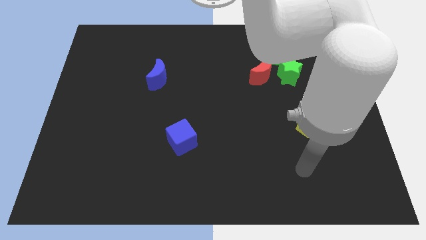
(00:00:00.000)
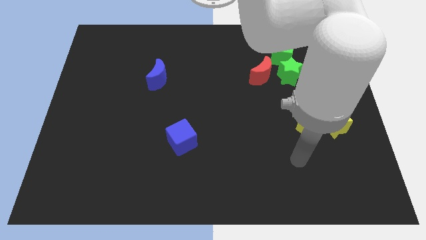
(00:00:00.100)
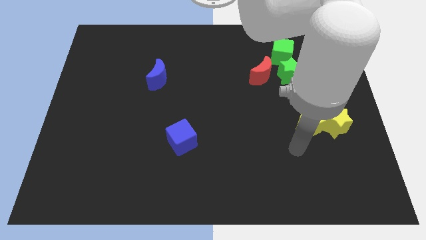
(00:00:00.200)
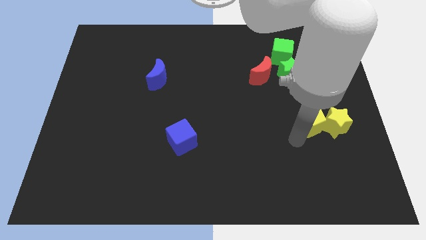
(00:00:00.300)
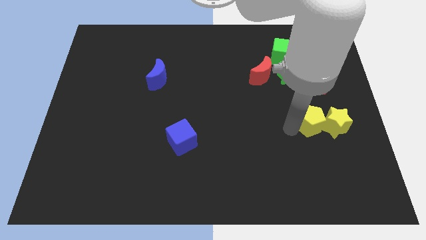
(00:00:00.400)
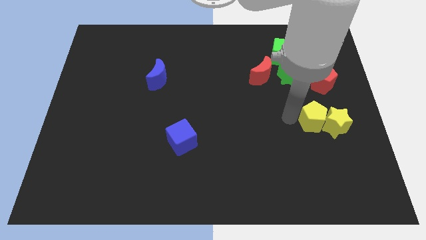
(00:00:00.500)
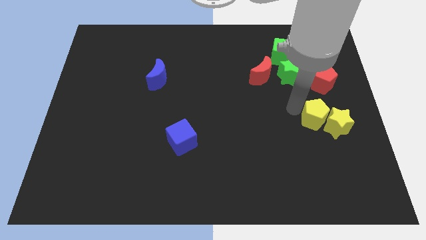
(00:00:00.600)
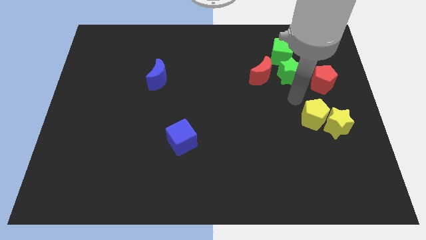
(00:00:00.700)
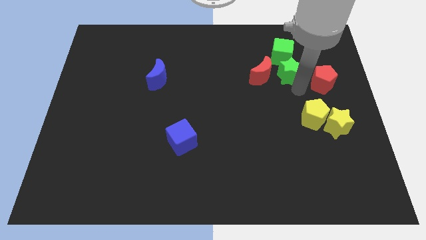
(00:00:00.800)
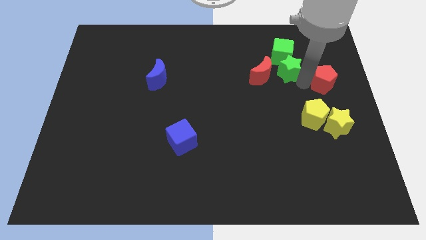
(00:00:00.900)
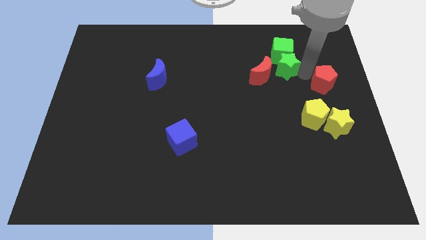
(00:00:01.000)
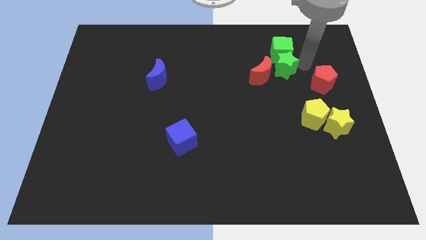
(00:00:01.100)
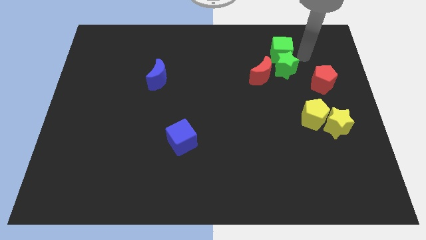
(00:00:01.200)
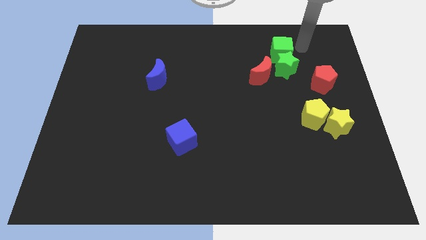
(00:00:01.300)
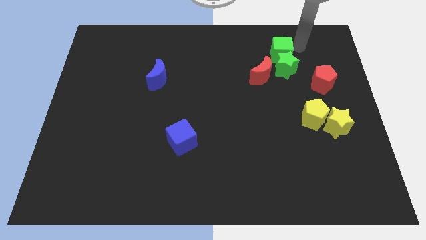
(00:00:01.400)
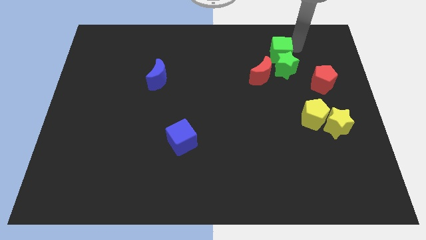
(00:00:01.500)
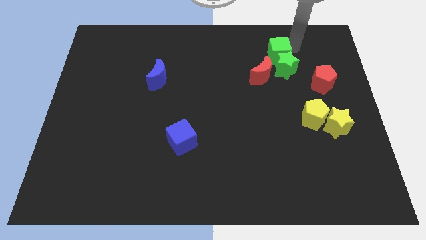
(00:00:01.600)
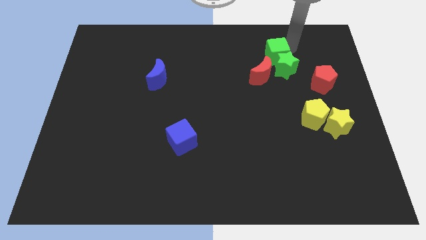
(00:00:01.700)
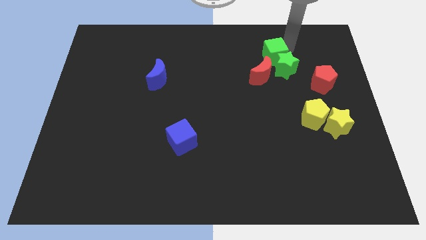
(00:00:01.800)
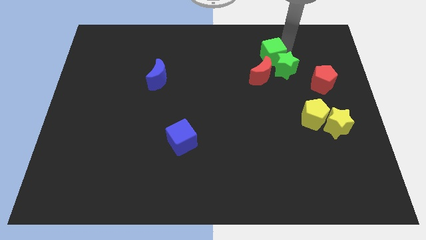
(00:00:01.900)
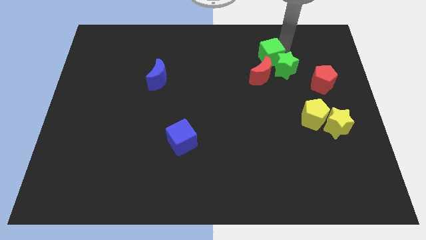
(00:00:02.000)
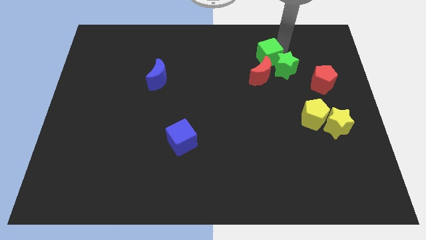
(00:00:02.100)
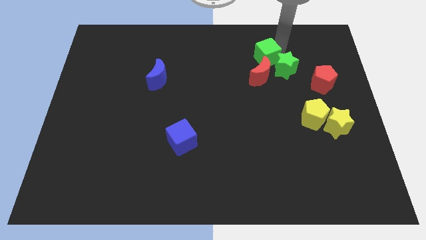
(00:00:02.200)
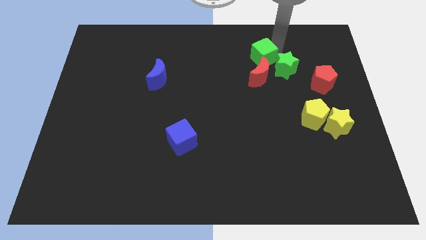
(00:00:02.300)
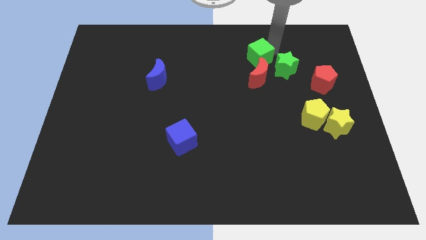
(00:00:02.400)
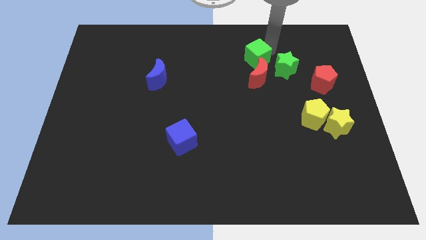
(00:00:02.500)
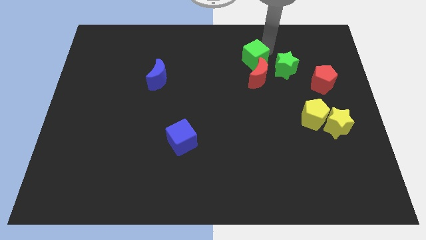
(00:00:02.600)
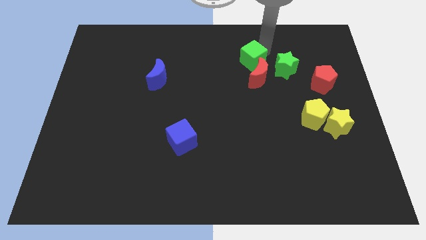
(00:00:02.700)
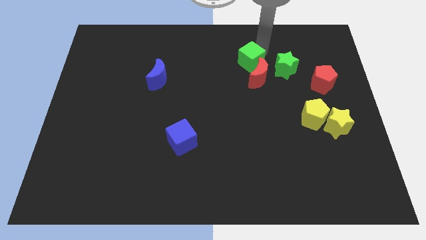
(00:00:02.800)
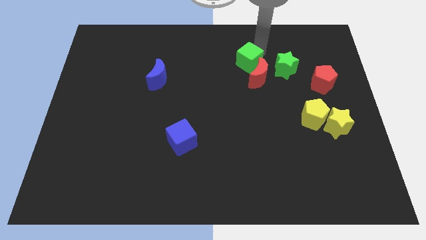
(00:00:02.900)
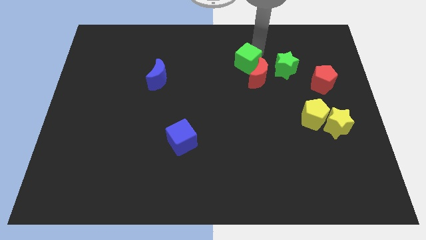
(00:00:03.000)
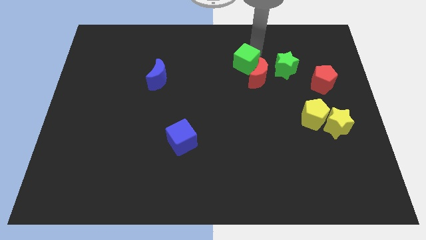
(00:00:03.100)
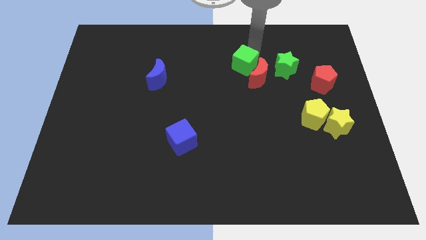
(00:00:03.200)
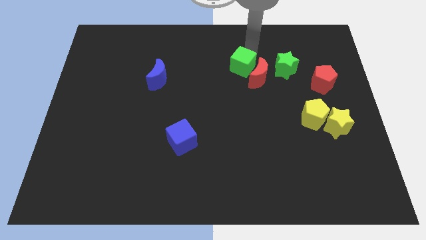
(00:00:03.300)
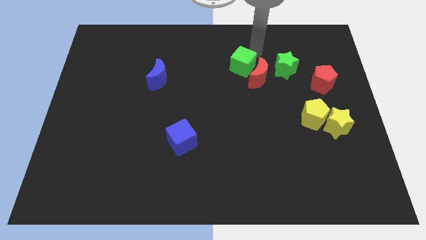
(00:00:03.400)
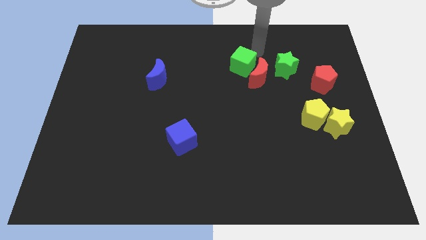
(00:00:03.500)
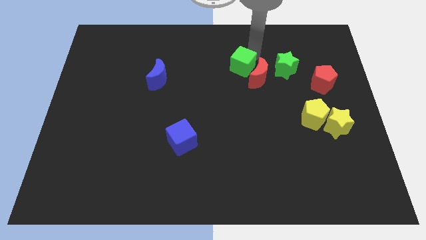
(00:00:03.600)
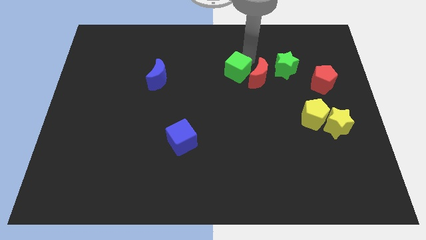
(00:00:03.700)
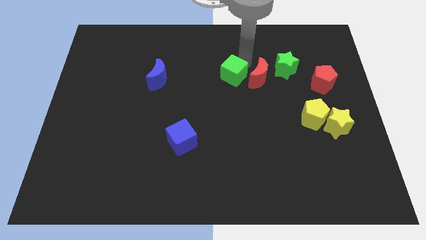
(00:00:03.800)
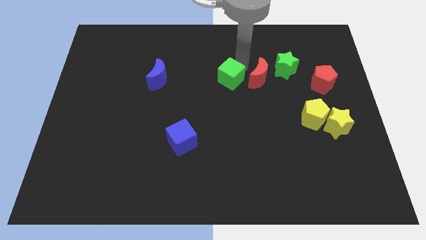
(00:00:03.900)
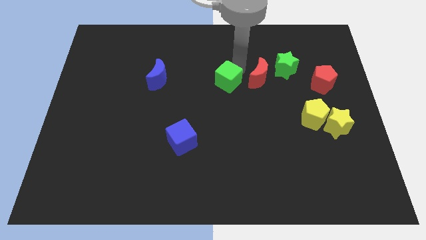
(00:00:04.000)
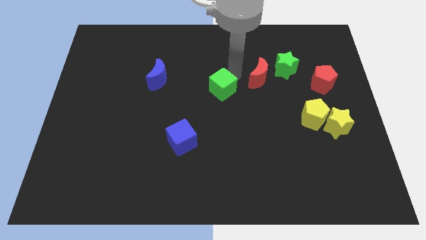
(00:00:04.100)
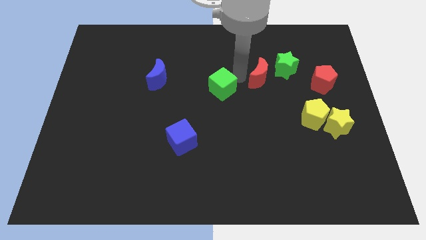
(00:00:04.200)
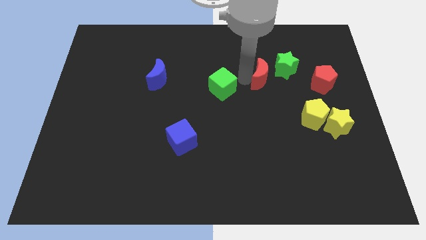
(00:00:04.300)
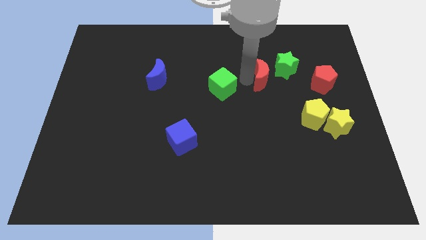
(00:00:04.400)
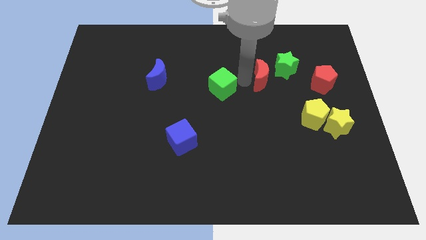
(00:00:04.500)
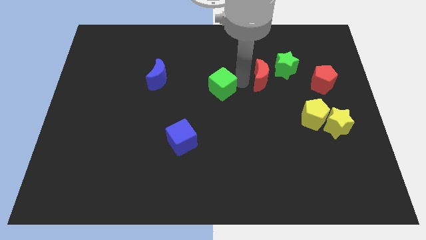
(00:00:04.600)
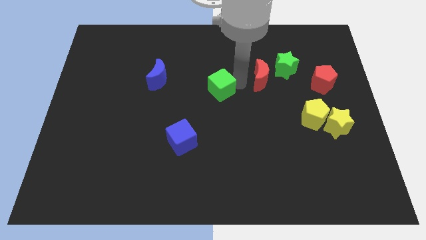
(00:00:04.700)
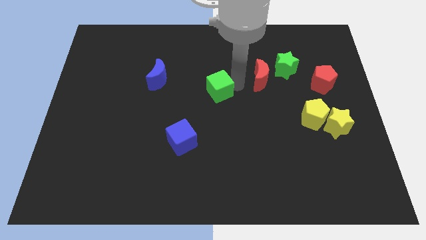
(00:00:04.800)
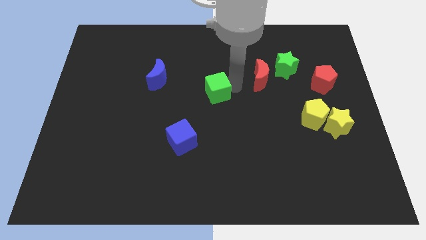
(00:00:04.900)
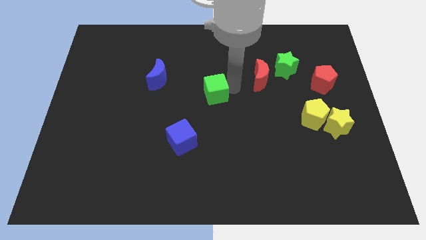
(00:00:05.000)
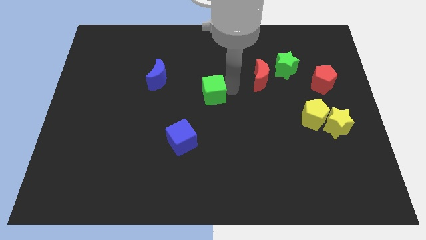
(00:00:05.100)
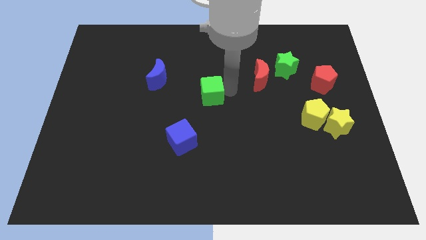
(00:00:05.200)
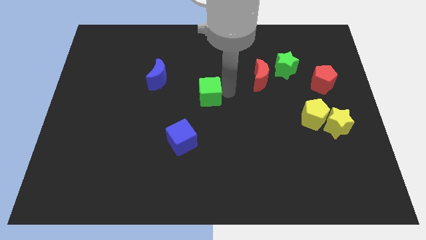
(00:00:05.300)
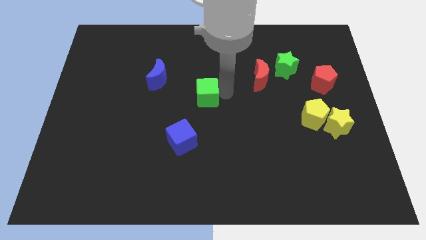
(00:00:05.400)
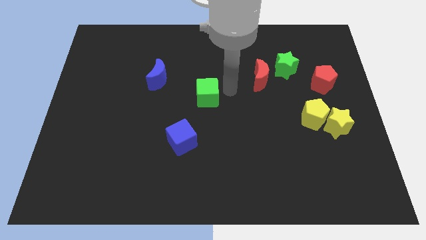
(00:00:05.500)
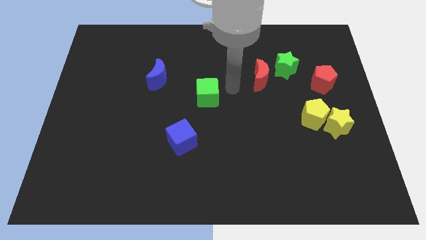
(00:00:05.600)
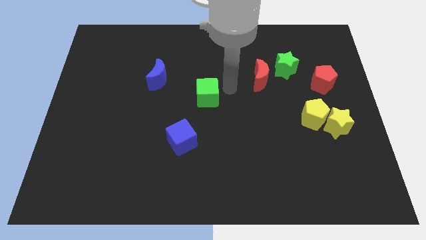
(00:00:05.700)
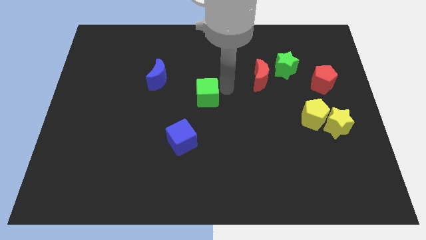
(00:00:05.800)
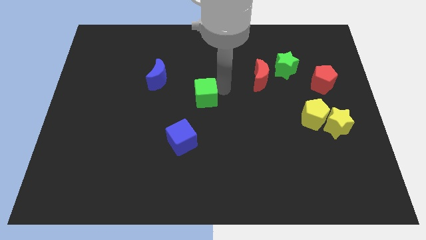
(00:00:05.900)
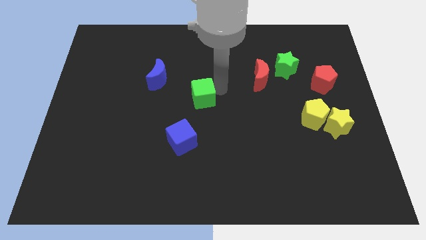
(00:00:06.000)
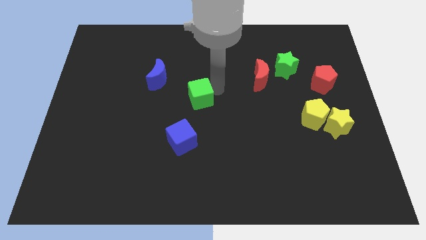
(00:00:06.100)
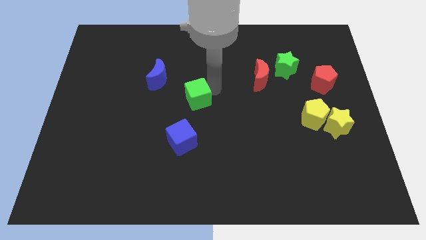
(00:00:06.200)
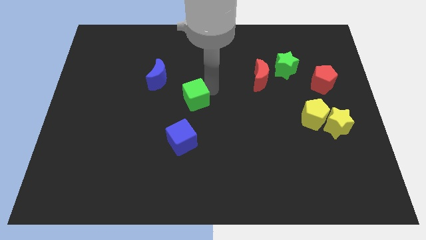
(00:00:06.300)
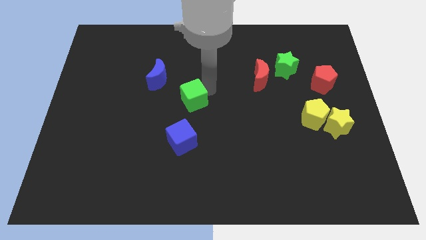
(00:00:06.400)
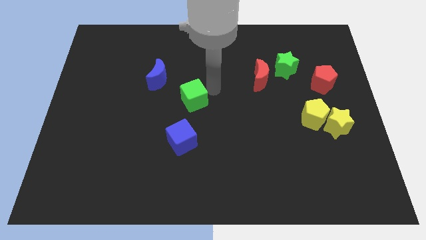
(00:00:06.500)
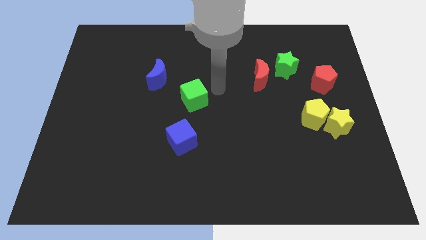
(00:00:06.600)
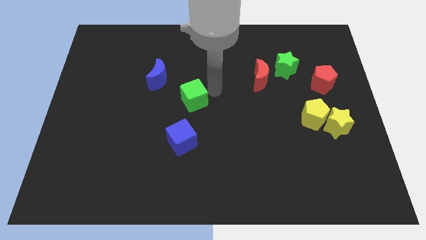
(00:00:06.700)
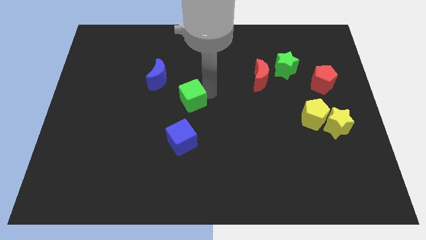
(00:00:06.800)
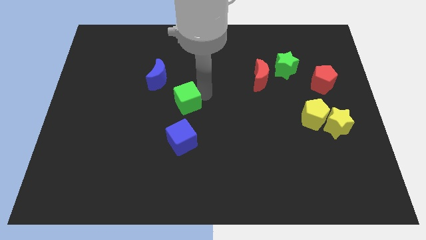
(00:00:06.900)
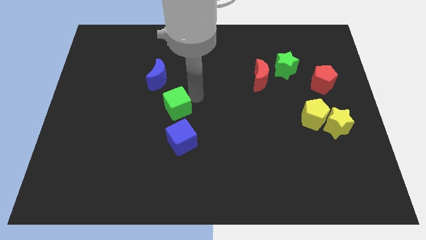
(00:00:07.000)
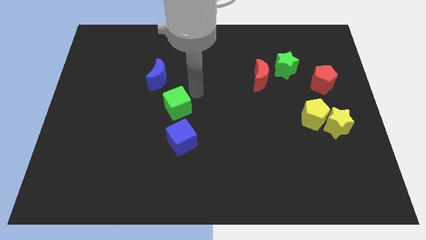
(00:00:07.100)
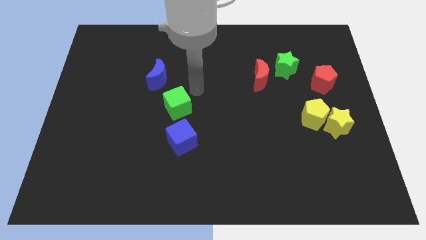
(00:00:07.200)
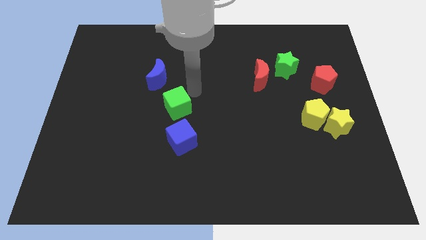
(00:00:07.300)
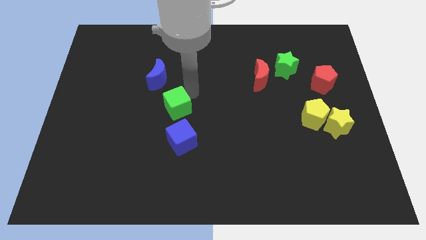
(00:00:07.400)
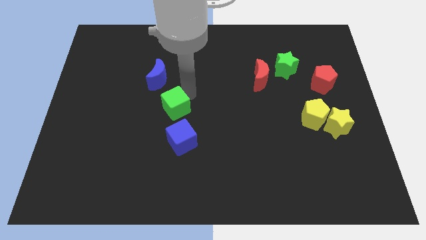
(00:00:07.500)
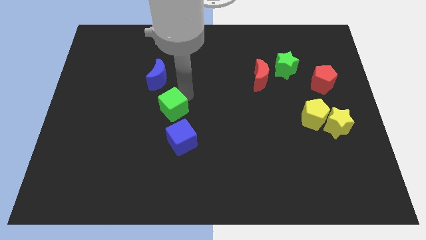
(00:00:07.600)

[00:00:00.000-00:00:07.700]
slide the green cube to the top left side of the blue cube
